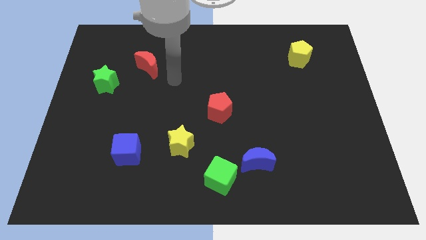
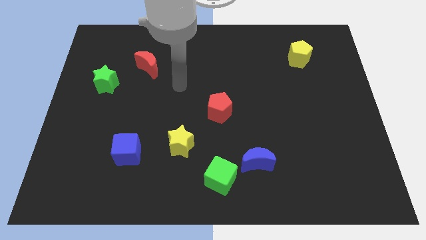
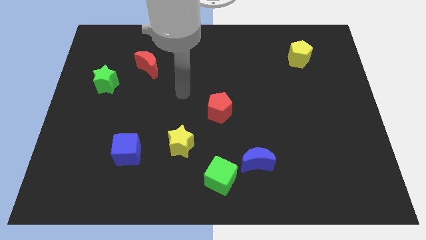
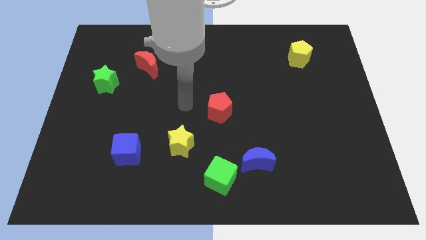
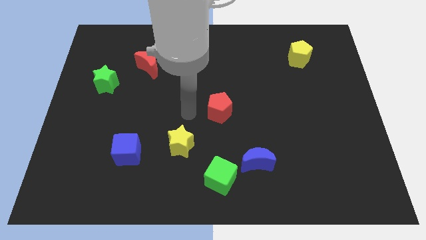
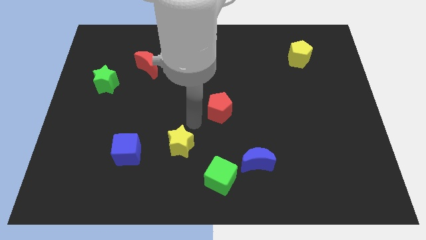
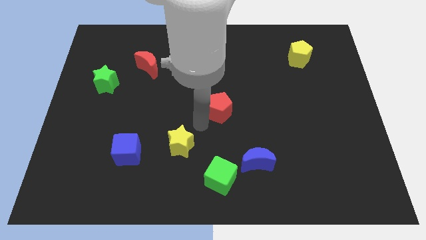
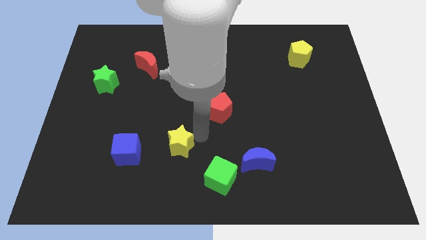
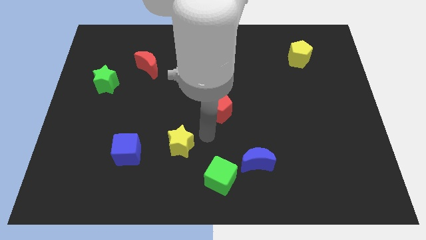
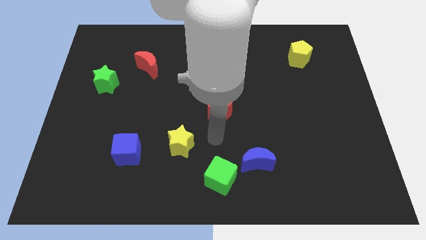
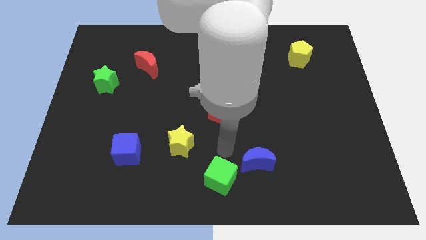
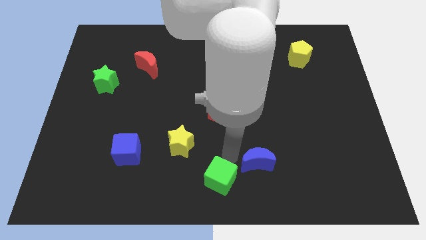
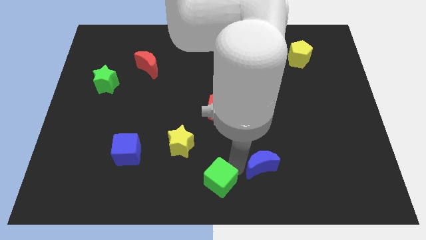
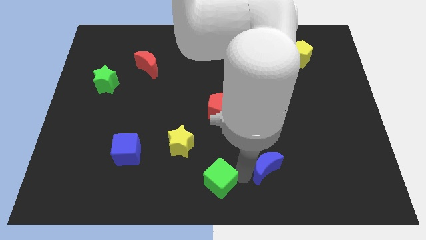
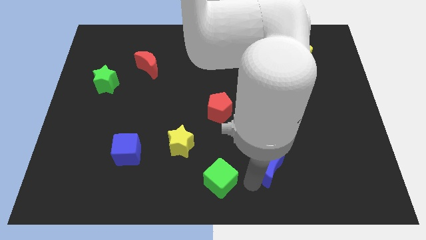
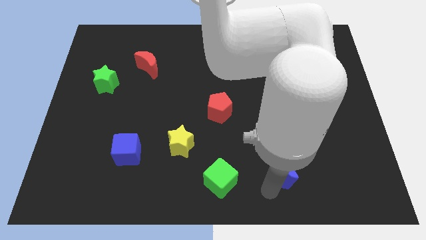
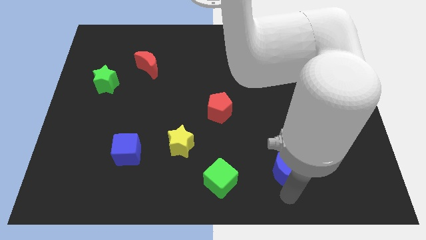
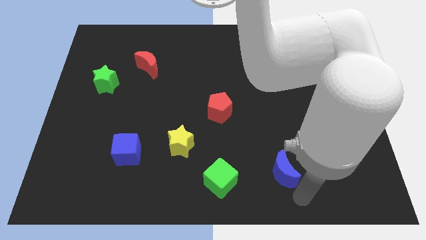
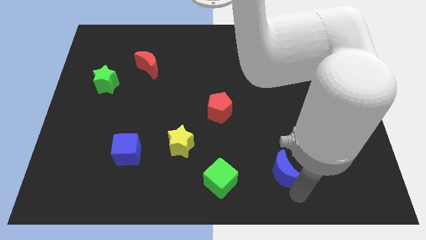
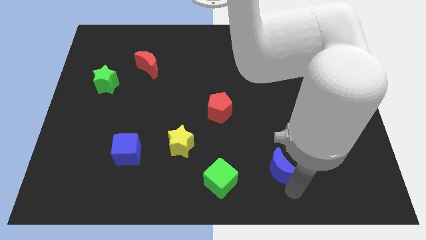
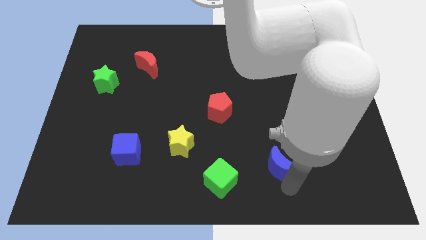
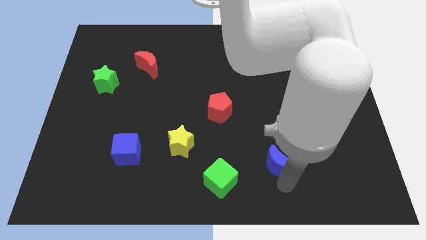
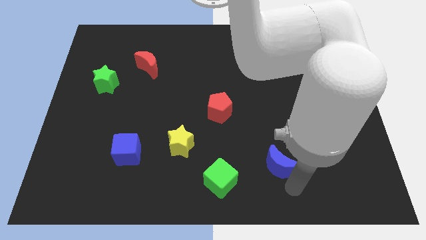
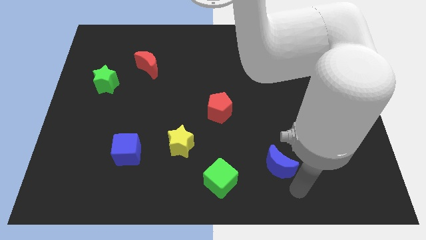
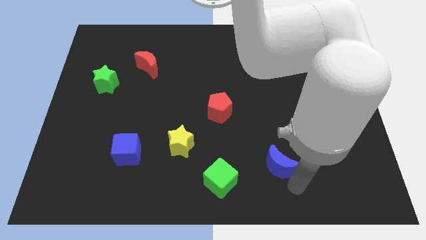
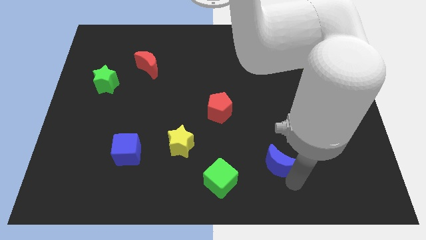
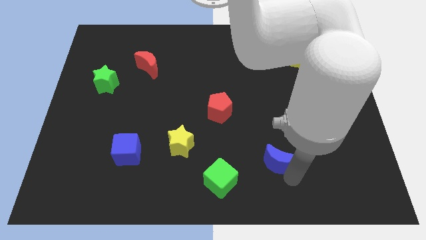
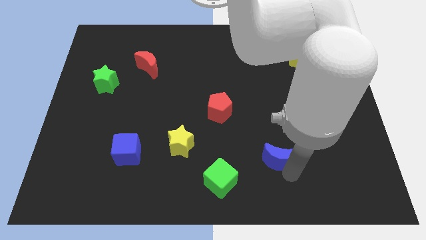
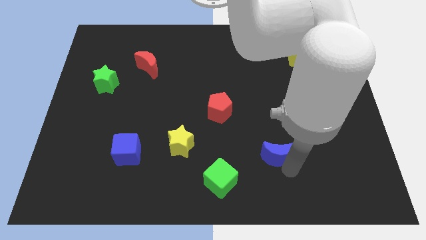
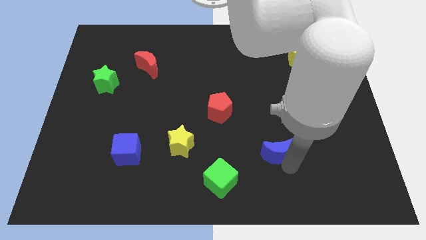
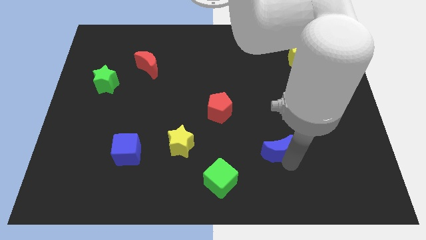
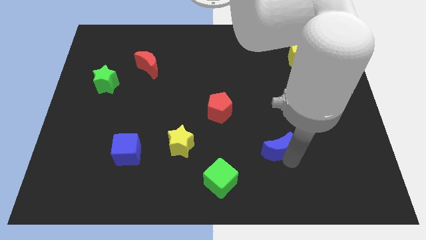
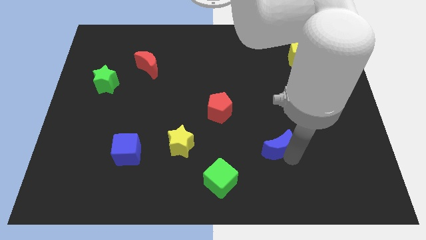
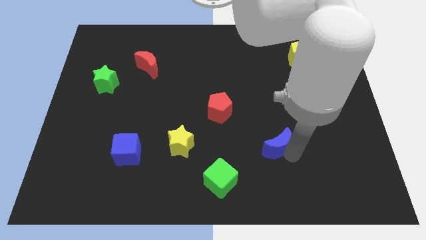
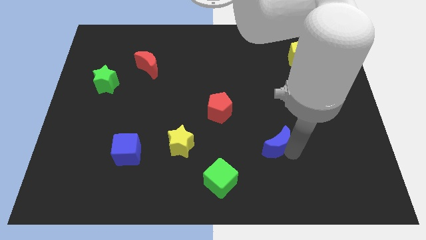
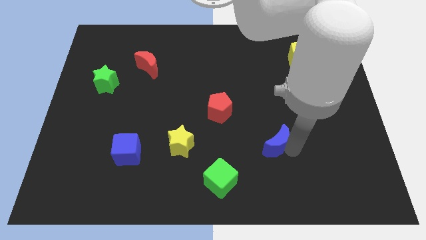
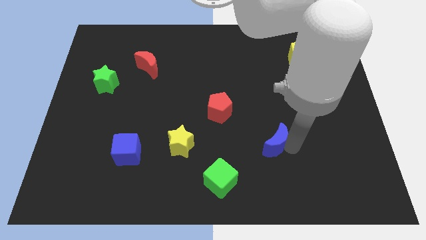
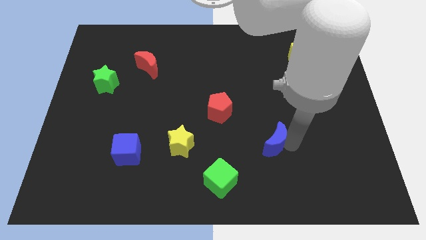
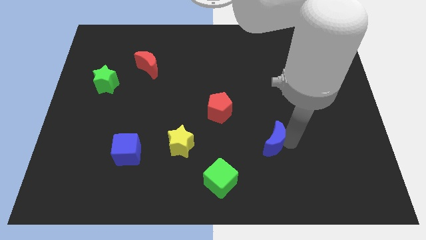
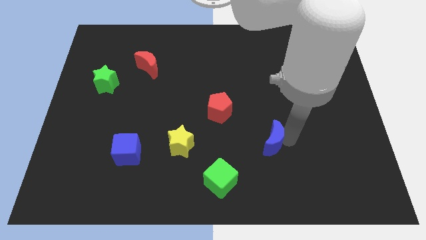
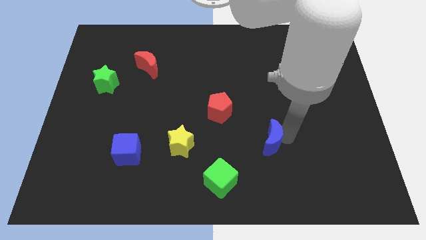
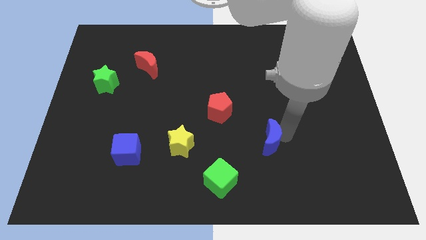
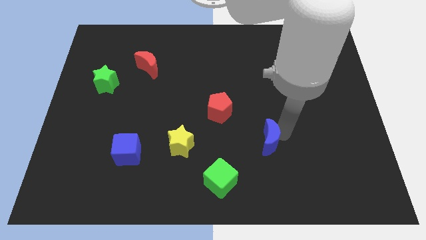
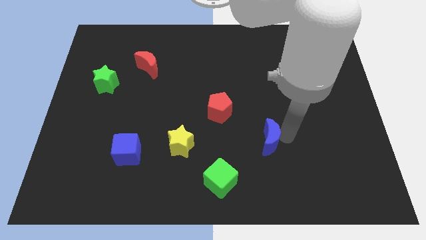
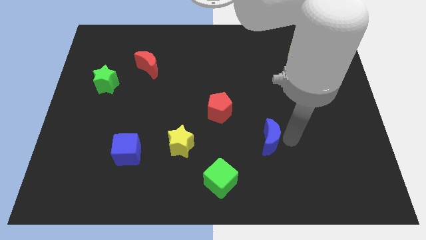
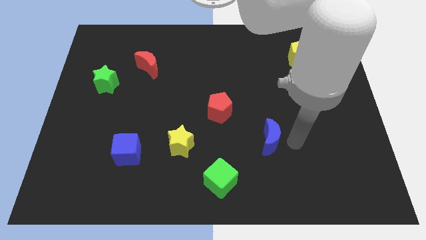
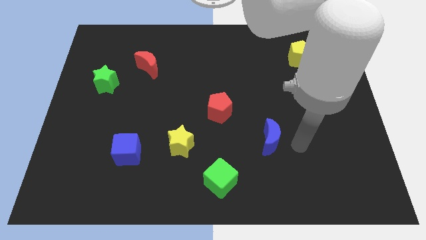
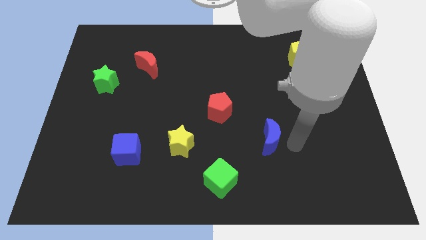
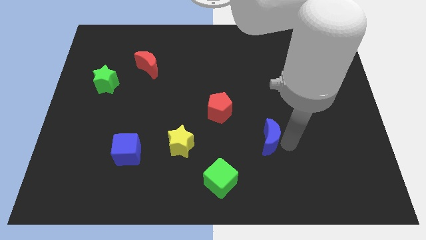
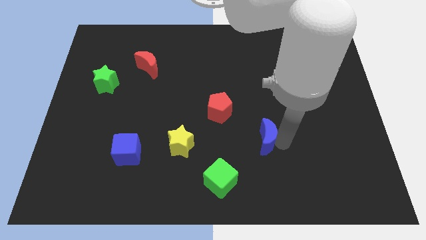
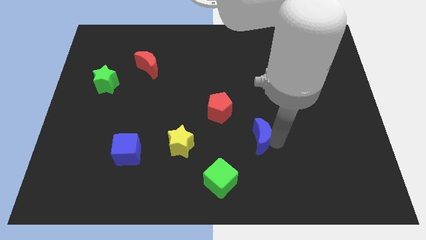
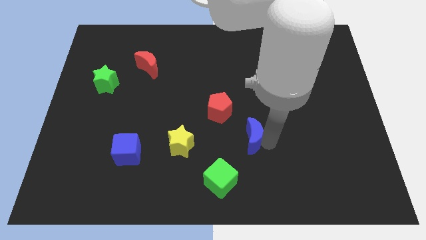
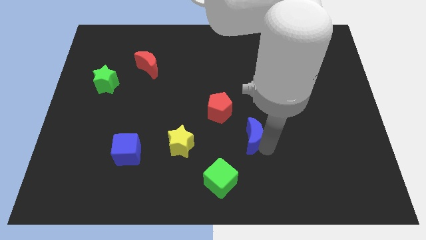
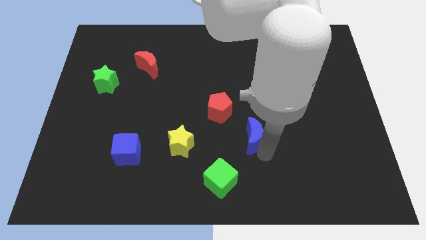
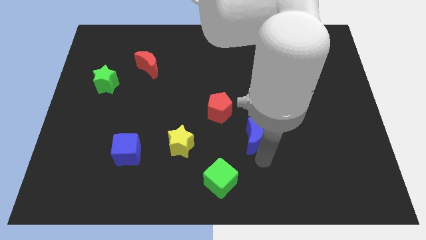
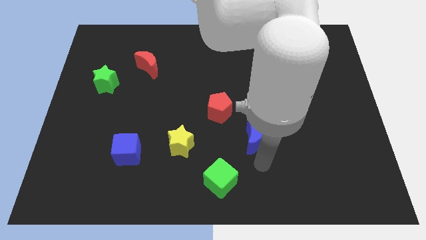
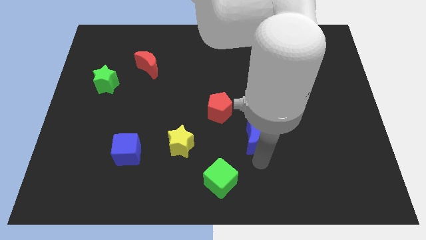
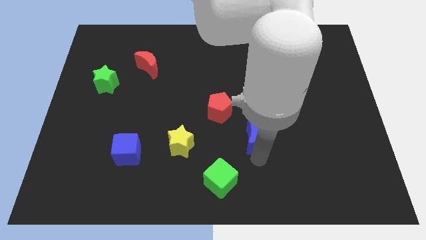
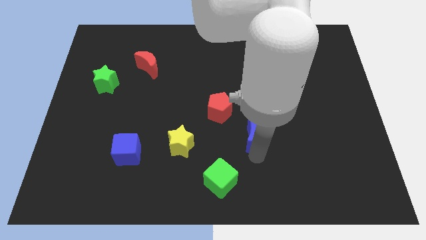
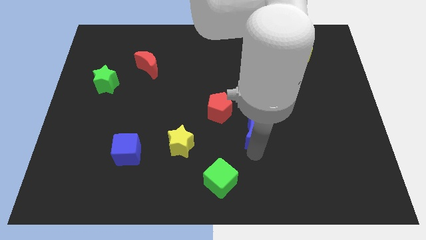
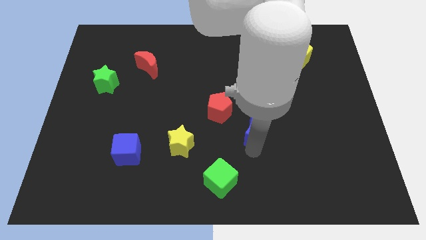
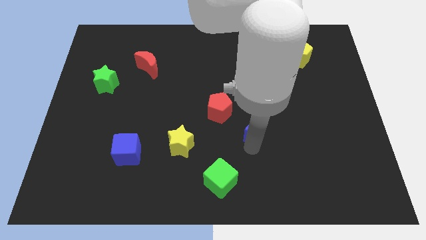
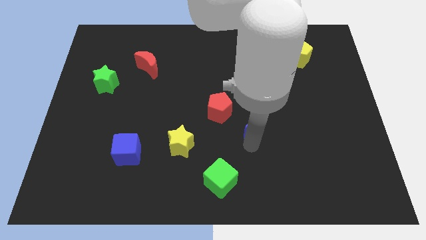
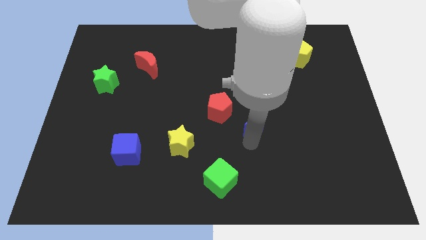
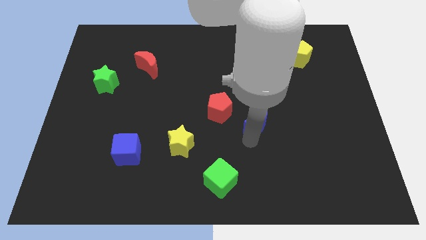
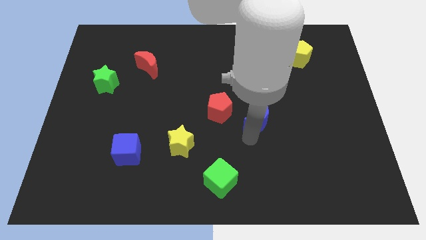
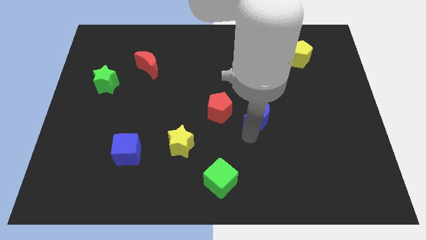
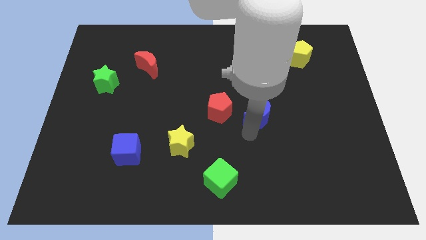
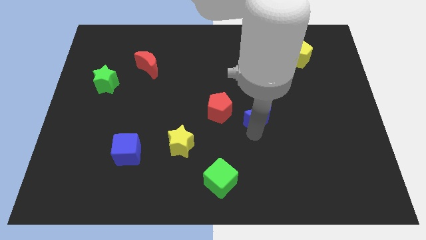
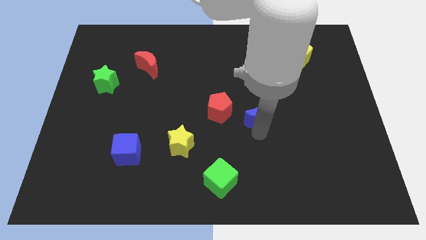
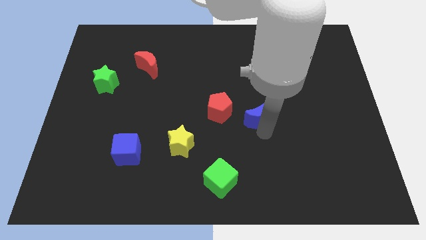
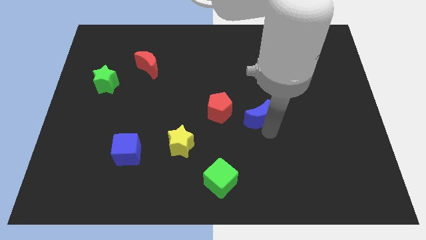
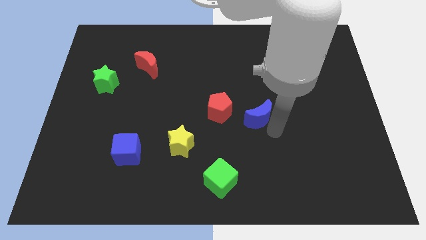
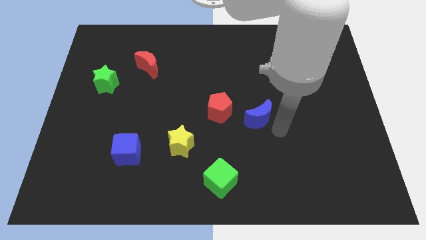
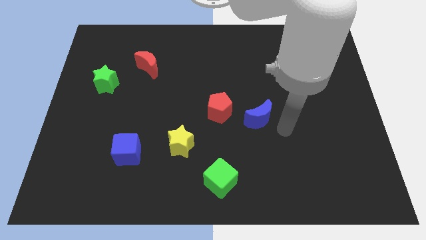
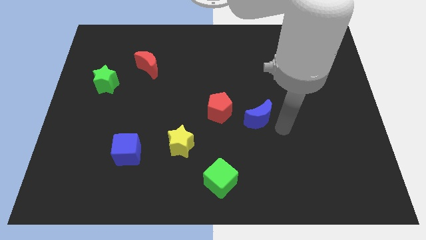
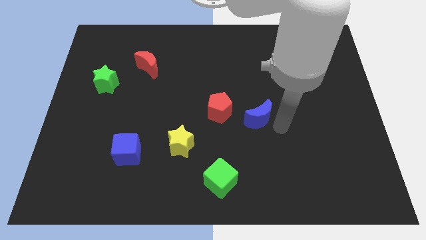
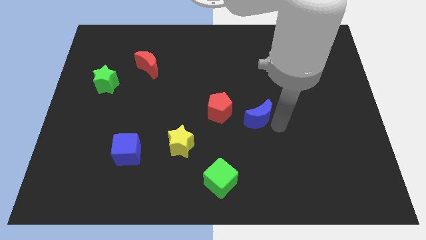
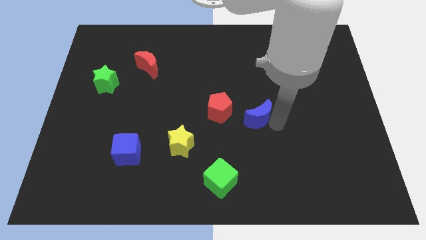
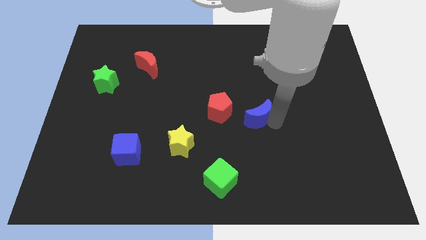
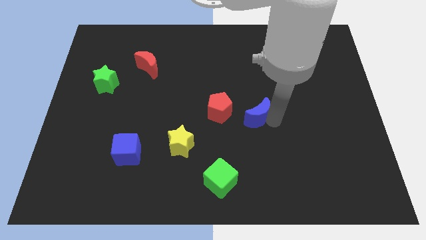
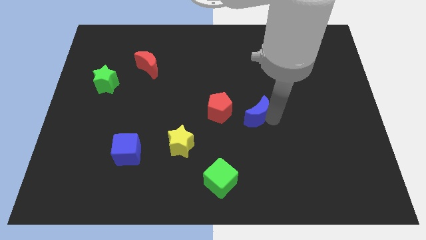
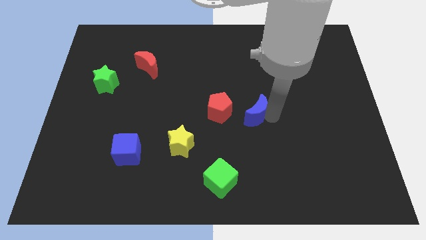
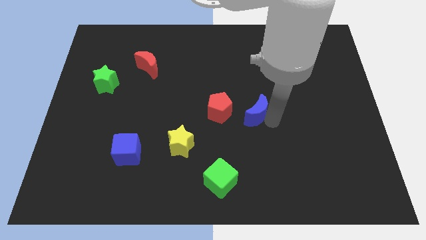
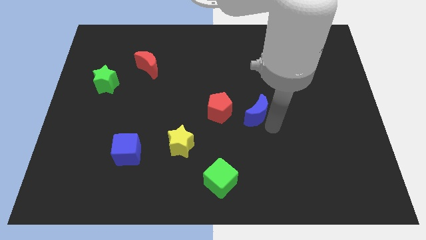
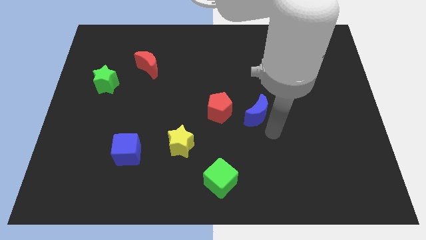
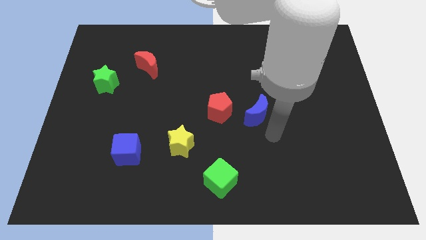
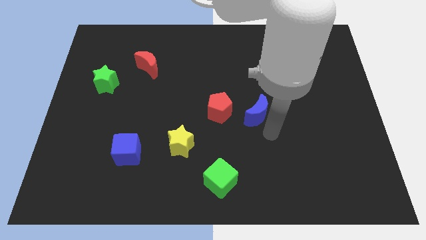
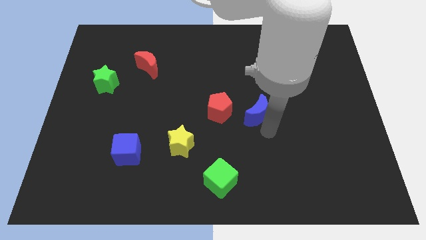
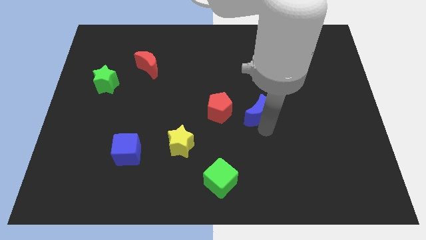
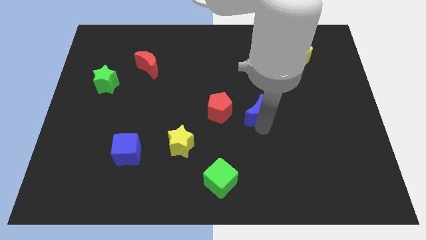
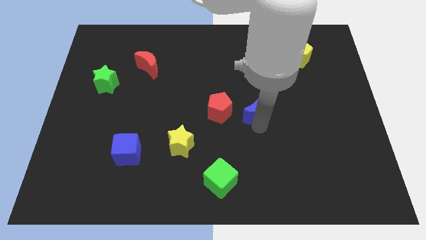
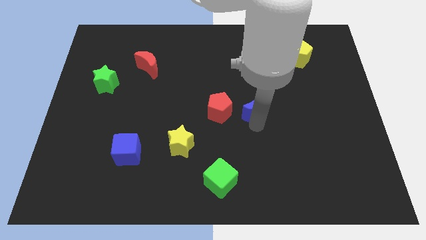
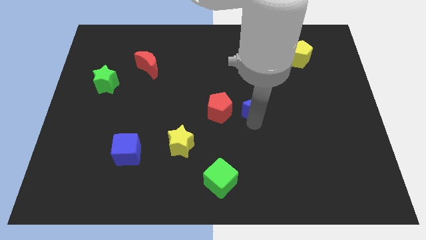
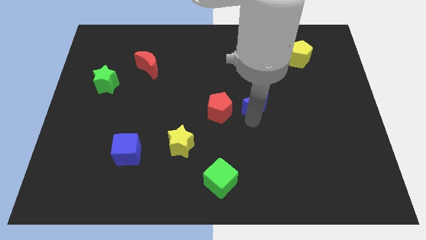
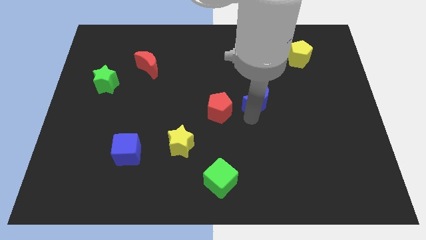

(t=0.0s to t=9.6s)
slide the blue moon to the top right side of the red pentagon
